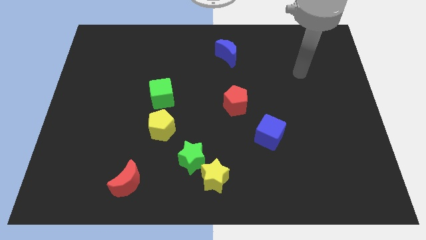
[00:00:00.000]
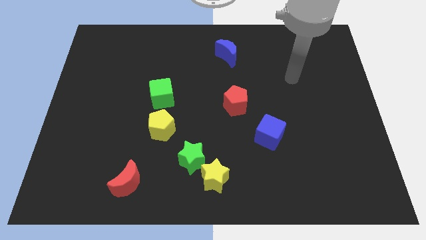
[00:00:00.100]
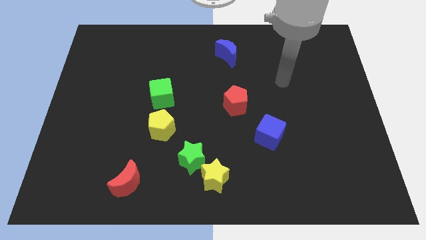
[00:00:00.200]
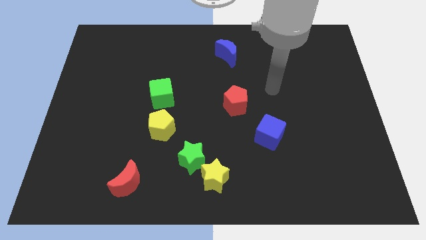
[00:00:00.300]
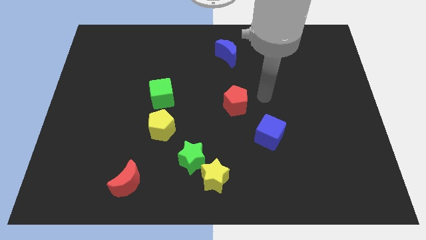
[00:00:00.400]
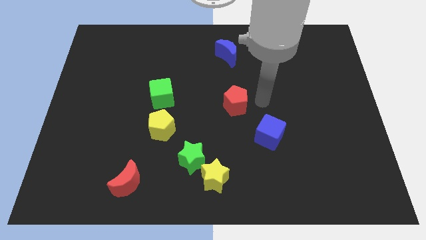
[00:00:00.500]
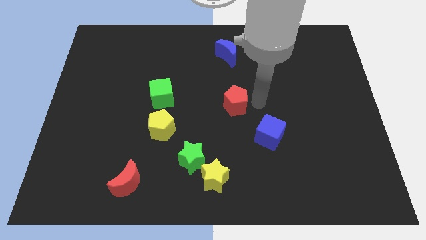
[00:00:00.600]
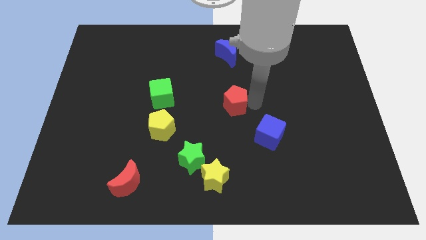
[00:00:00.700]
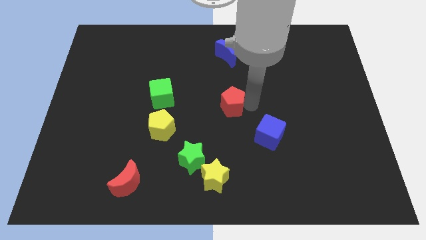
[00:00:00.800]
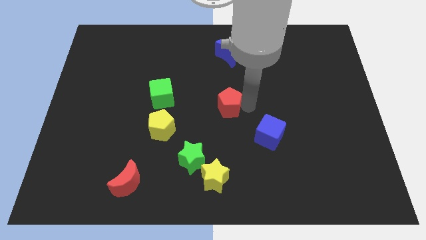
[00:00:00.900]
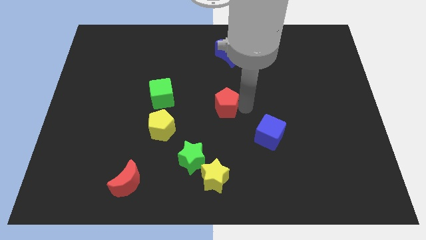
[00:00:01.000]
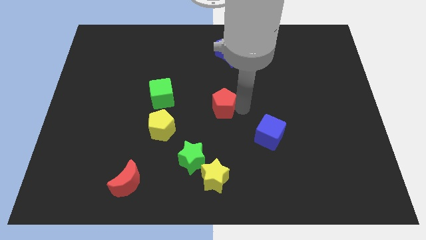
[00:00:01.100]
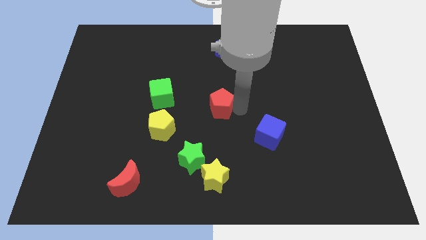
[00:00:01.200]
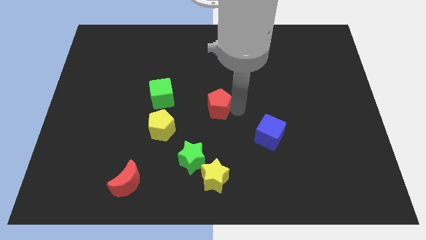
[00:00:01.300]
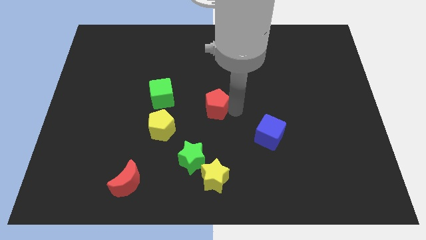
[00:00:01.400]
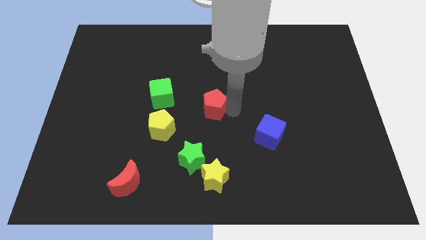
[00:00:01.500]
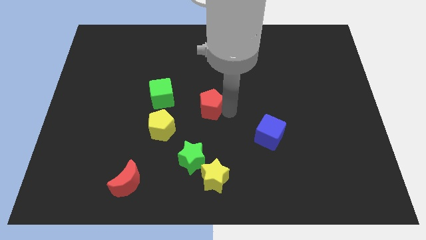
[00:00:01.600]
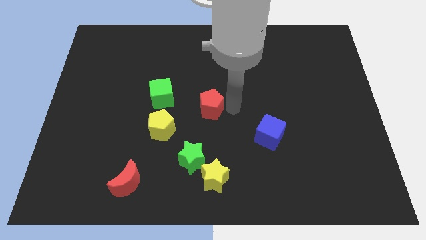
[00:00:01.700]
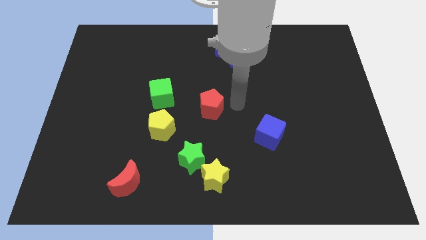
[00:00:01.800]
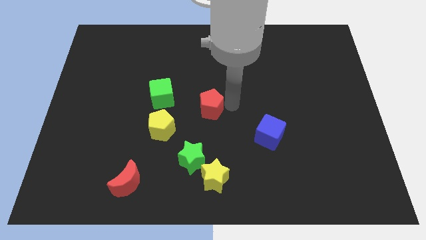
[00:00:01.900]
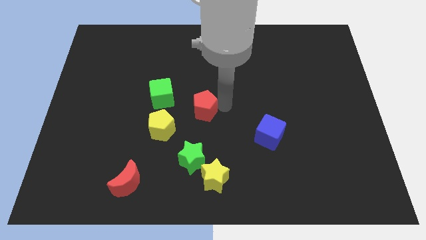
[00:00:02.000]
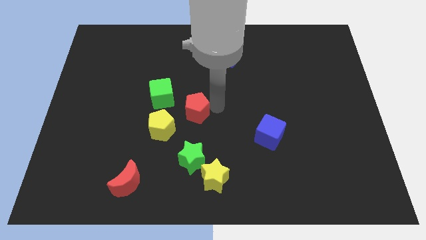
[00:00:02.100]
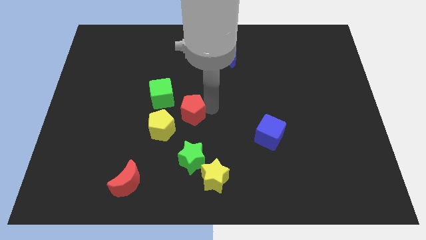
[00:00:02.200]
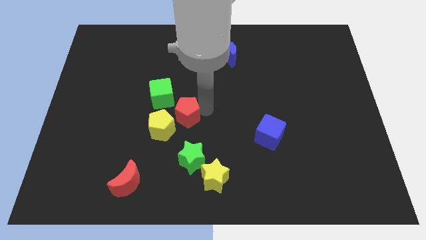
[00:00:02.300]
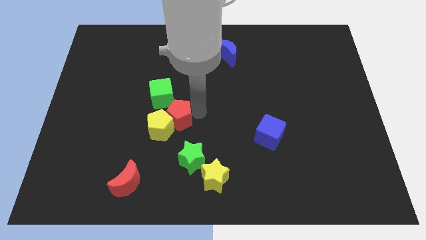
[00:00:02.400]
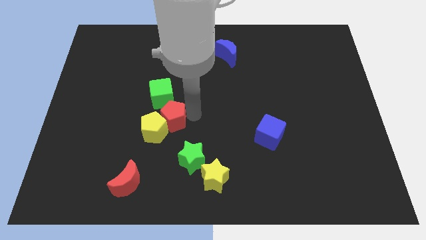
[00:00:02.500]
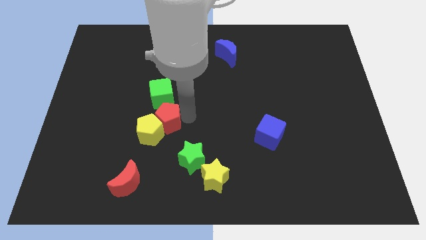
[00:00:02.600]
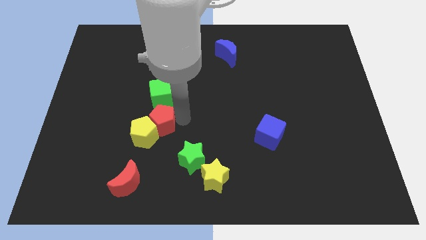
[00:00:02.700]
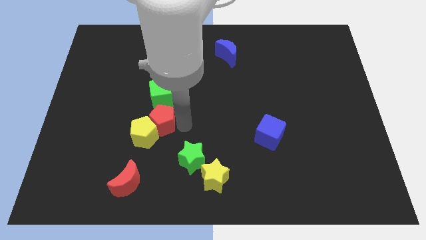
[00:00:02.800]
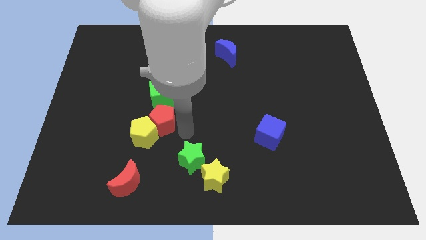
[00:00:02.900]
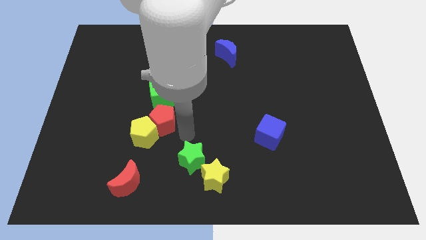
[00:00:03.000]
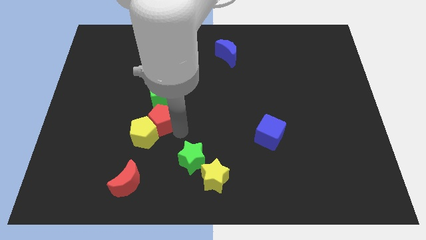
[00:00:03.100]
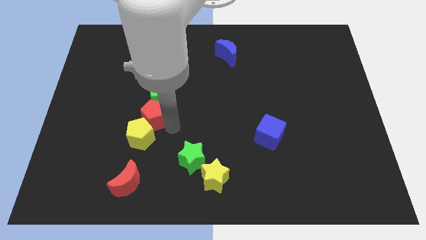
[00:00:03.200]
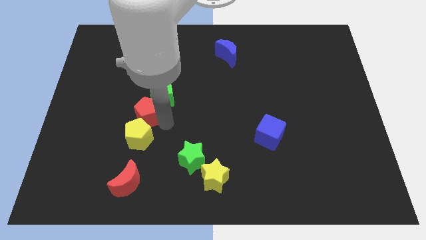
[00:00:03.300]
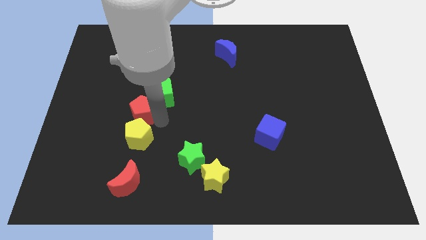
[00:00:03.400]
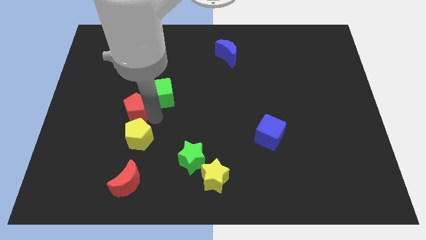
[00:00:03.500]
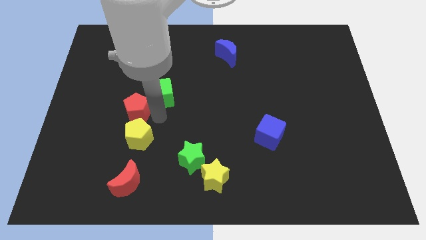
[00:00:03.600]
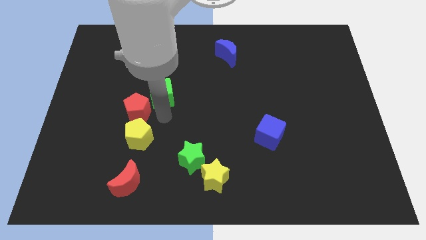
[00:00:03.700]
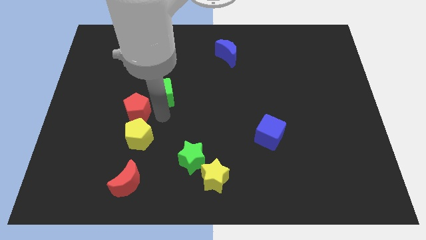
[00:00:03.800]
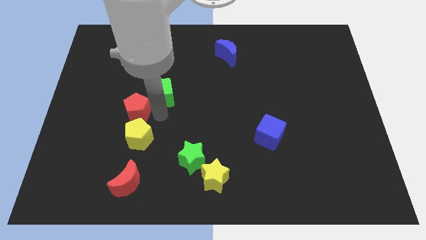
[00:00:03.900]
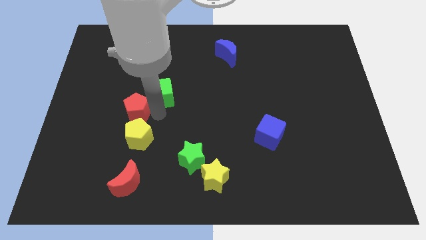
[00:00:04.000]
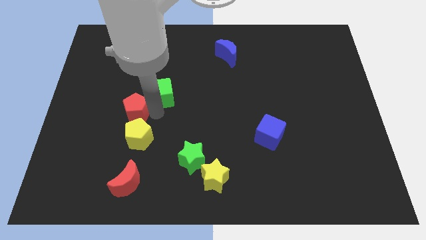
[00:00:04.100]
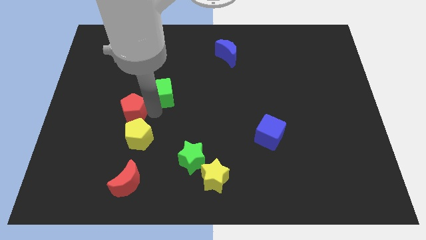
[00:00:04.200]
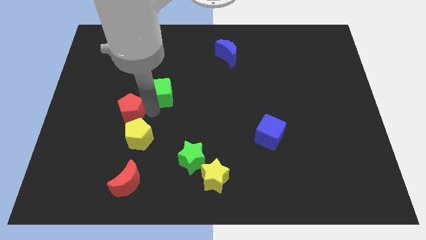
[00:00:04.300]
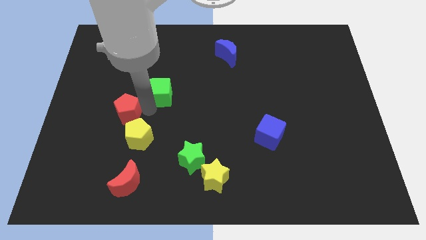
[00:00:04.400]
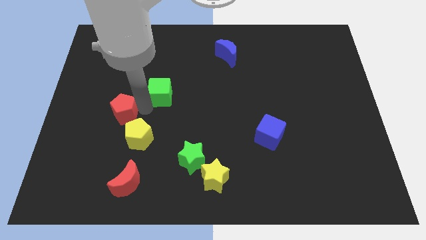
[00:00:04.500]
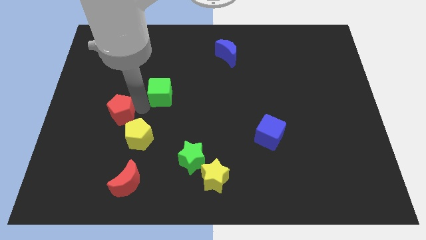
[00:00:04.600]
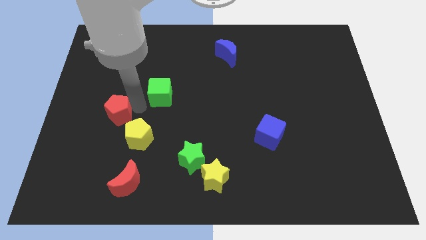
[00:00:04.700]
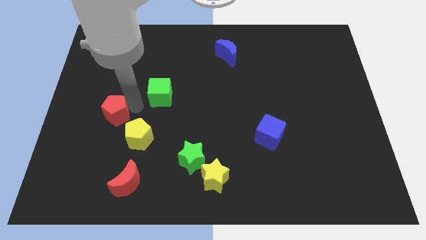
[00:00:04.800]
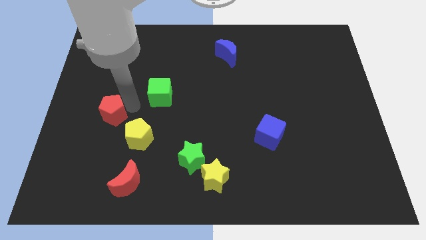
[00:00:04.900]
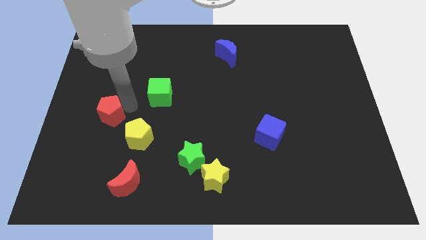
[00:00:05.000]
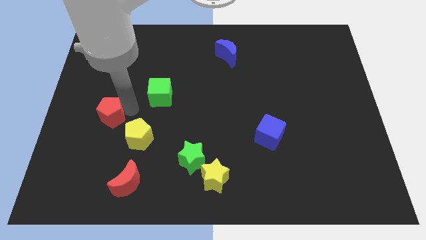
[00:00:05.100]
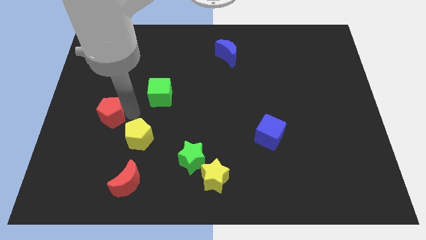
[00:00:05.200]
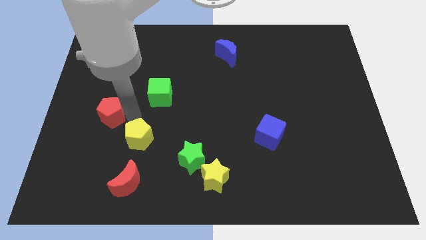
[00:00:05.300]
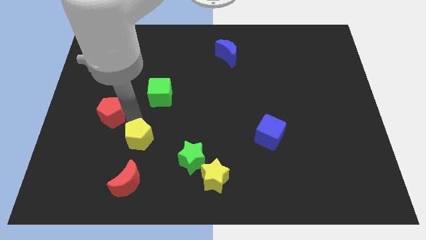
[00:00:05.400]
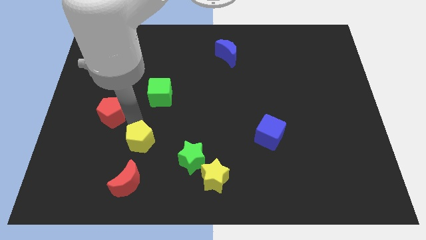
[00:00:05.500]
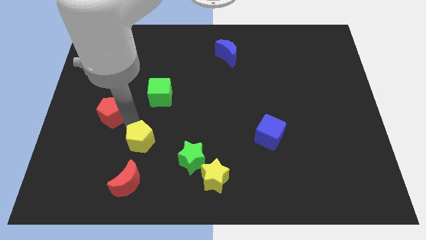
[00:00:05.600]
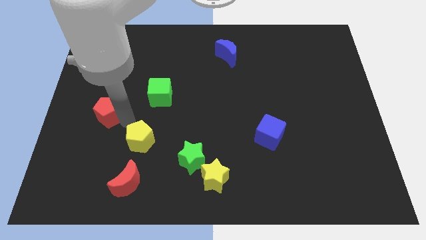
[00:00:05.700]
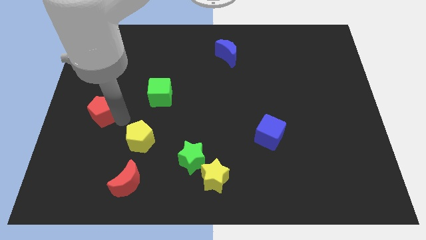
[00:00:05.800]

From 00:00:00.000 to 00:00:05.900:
move the red pentagon to the left side of the board

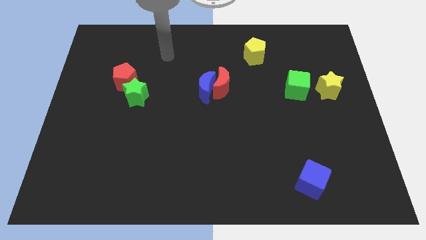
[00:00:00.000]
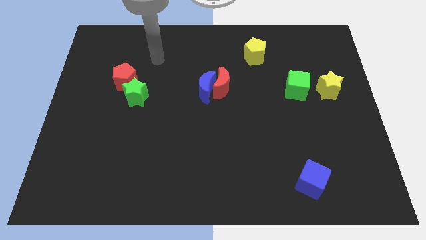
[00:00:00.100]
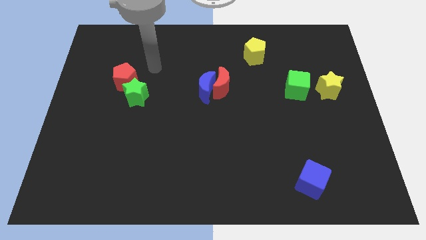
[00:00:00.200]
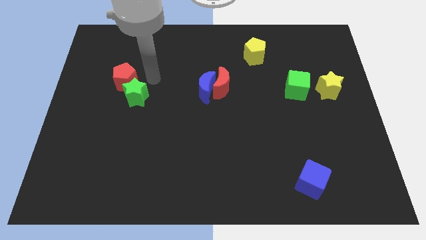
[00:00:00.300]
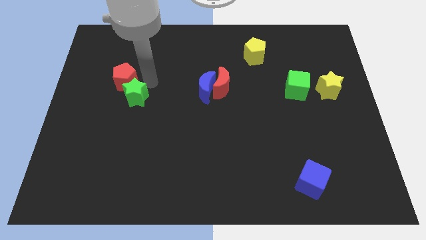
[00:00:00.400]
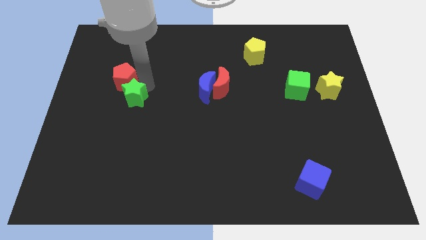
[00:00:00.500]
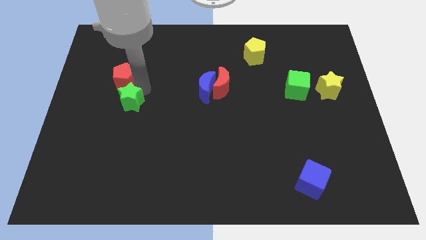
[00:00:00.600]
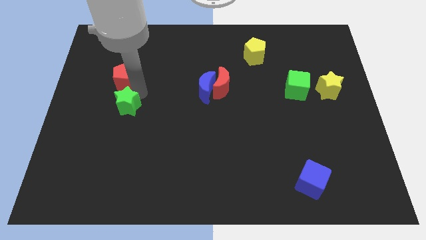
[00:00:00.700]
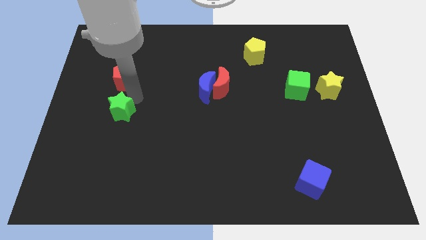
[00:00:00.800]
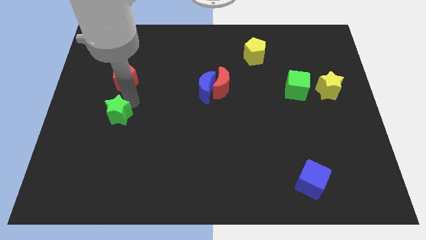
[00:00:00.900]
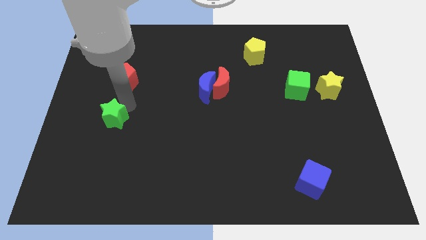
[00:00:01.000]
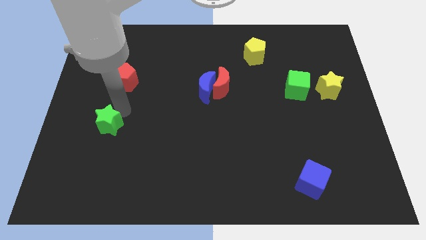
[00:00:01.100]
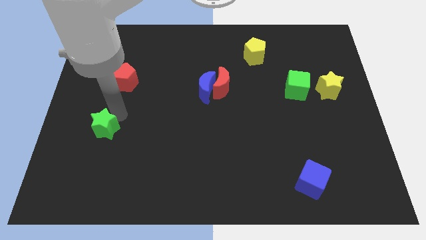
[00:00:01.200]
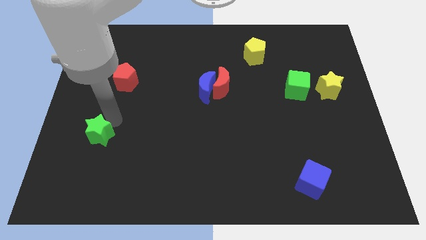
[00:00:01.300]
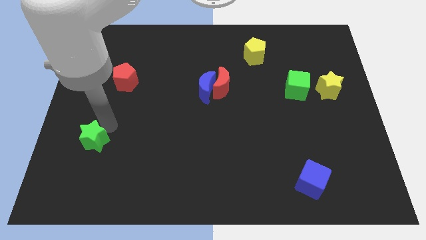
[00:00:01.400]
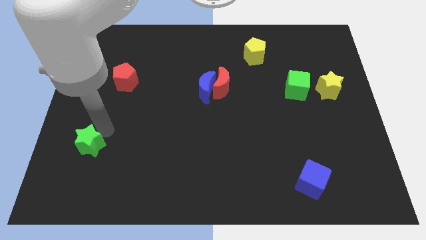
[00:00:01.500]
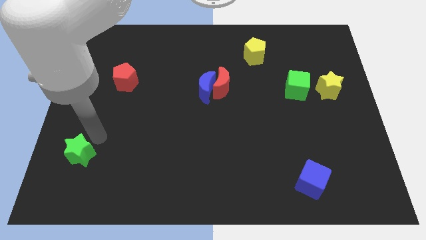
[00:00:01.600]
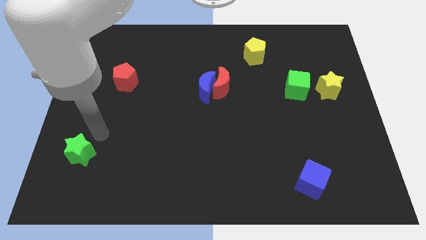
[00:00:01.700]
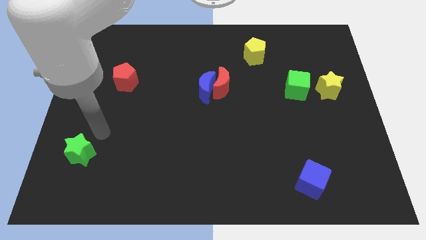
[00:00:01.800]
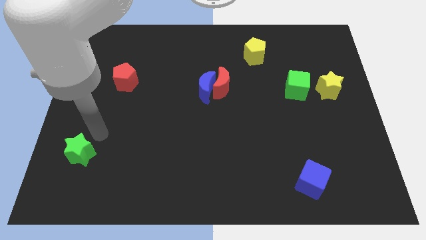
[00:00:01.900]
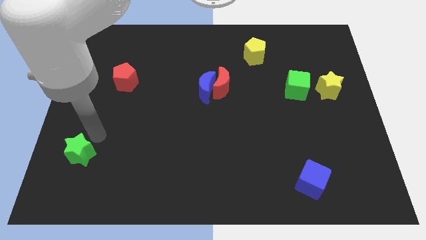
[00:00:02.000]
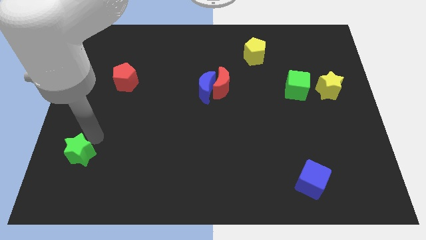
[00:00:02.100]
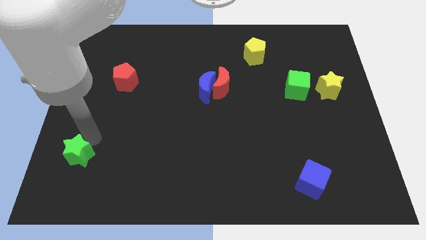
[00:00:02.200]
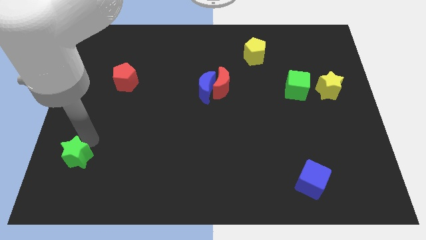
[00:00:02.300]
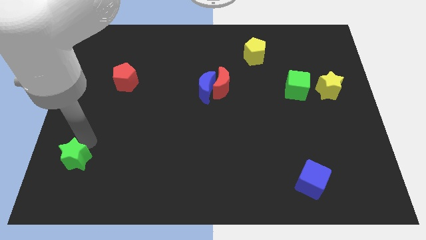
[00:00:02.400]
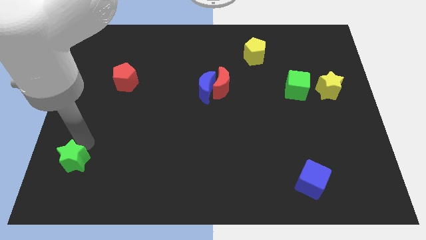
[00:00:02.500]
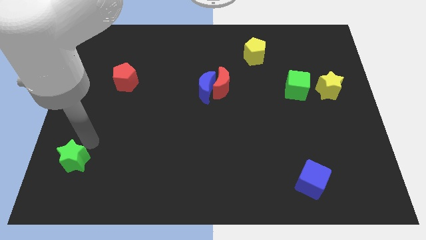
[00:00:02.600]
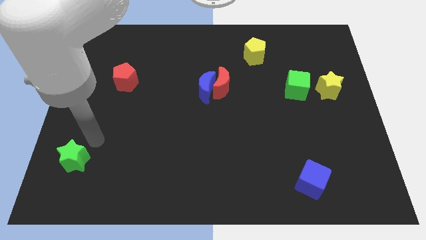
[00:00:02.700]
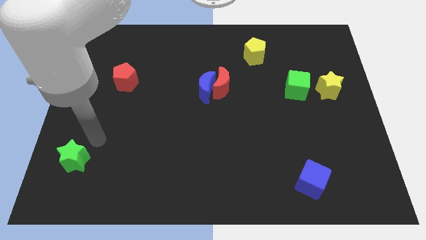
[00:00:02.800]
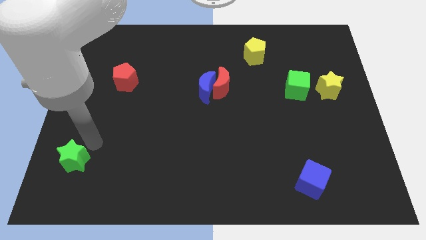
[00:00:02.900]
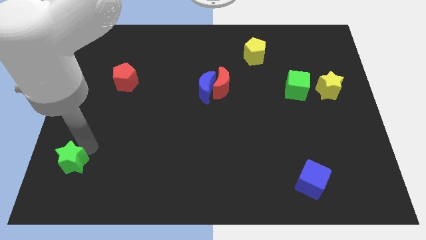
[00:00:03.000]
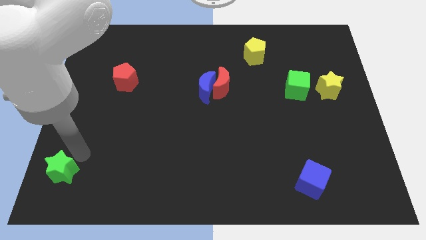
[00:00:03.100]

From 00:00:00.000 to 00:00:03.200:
slide the green star to the bottom left
